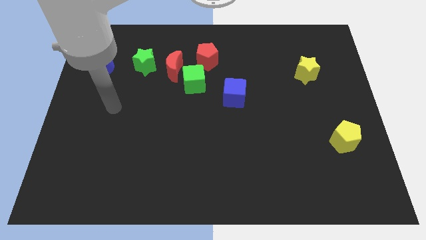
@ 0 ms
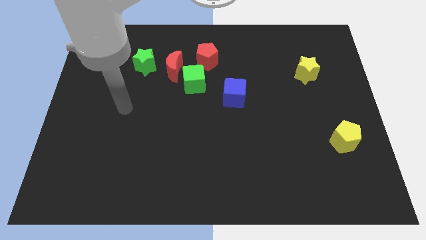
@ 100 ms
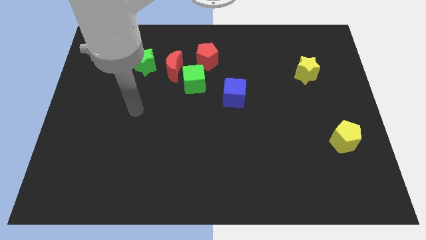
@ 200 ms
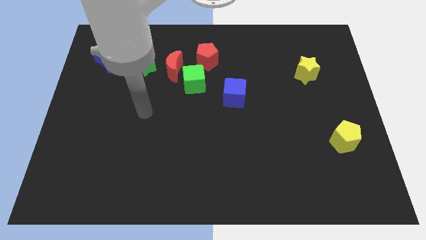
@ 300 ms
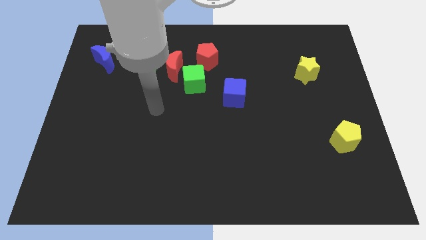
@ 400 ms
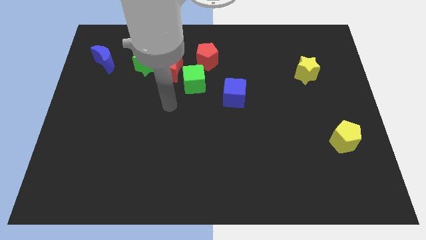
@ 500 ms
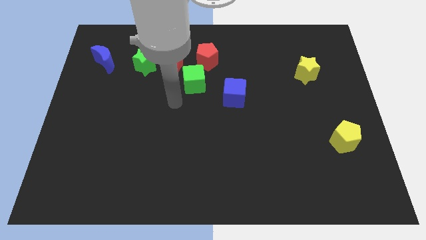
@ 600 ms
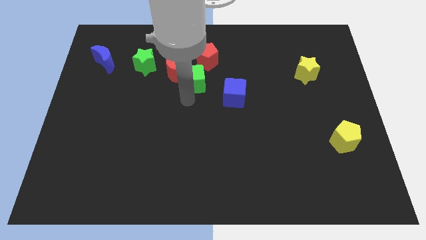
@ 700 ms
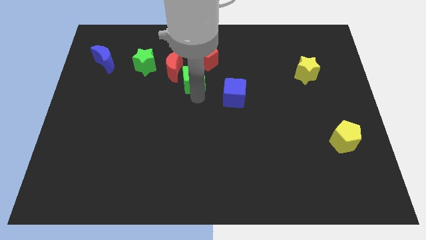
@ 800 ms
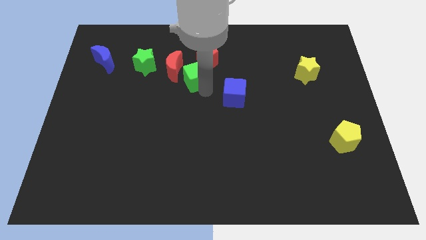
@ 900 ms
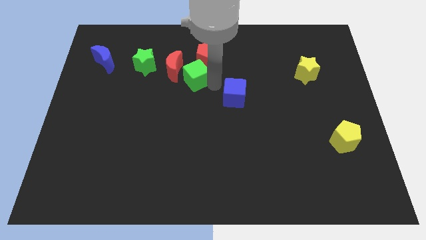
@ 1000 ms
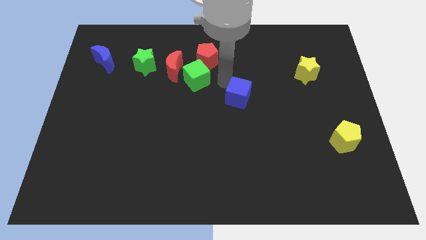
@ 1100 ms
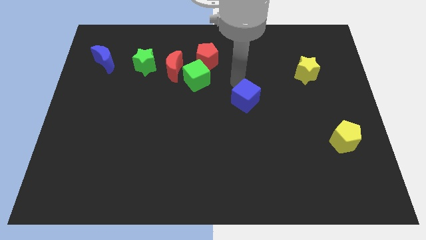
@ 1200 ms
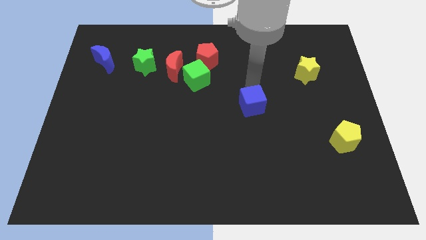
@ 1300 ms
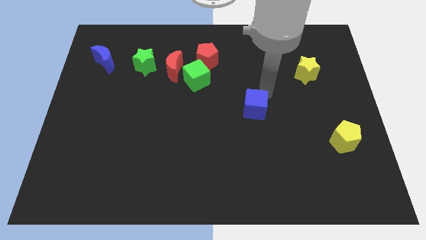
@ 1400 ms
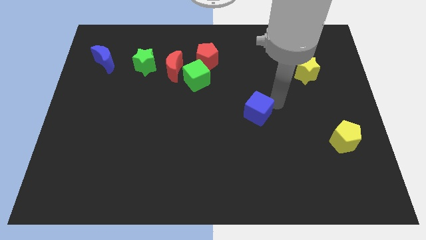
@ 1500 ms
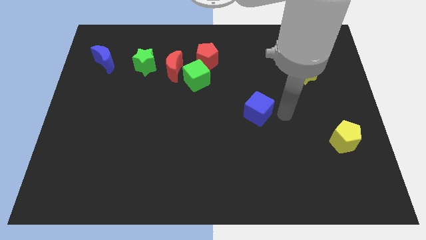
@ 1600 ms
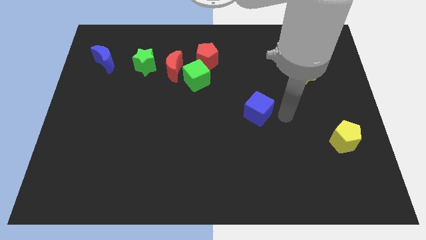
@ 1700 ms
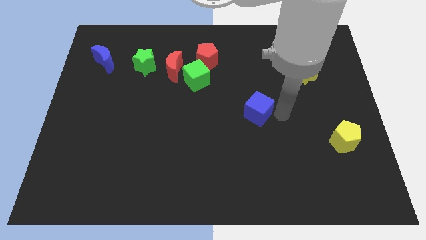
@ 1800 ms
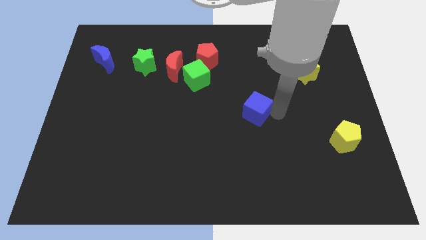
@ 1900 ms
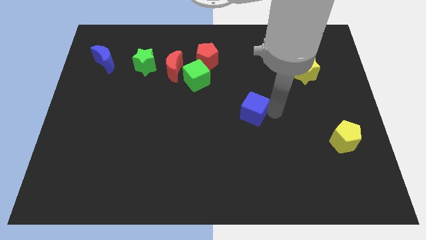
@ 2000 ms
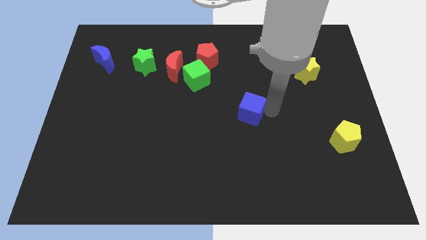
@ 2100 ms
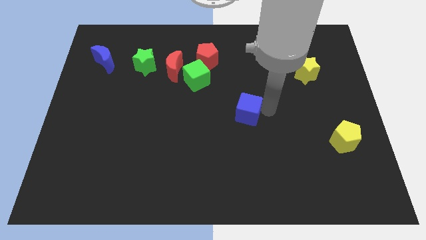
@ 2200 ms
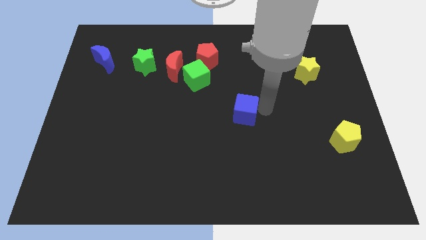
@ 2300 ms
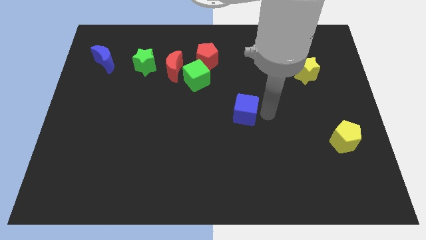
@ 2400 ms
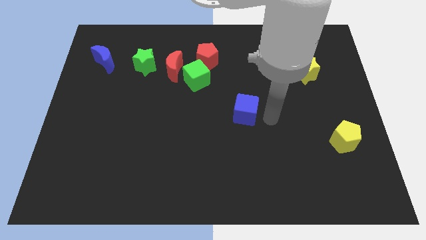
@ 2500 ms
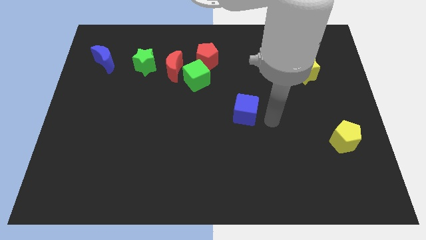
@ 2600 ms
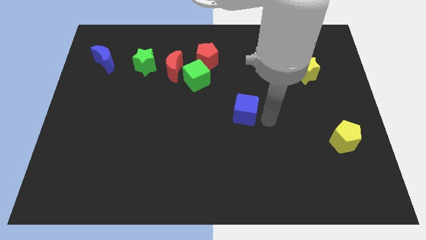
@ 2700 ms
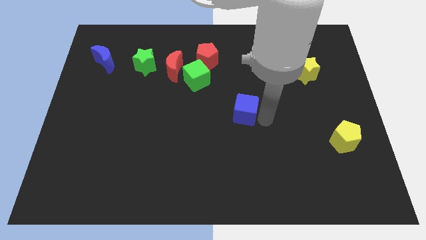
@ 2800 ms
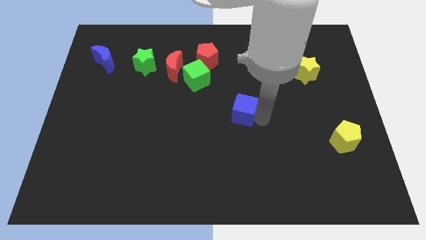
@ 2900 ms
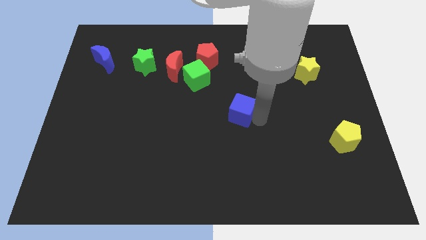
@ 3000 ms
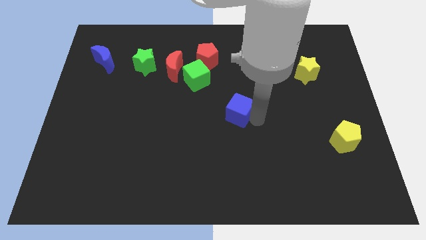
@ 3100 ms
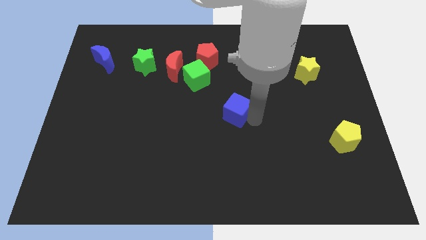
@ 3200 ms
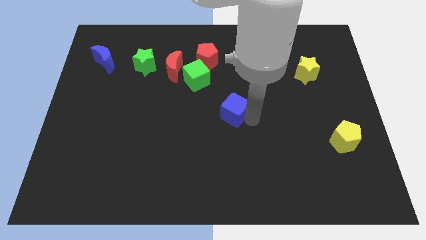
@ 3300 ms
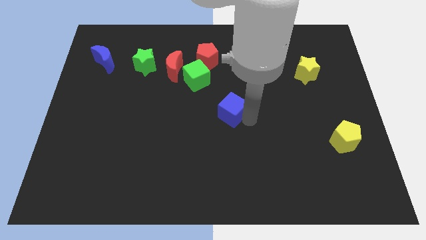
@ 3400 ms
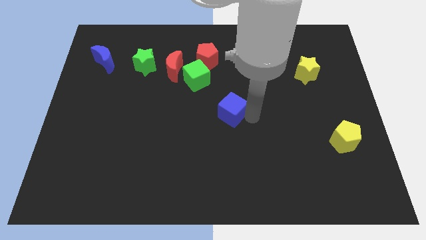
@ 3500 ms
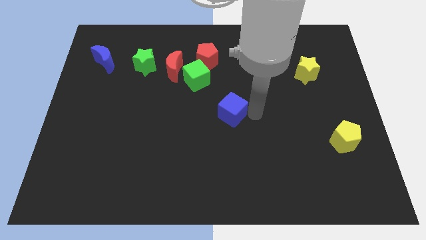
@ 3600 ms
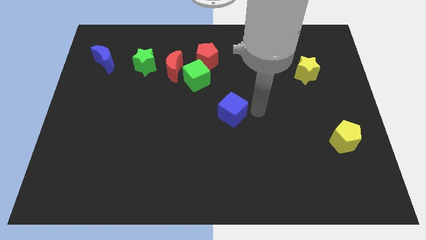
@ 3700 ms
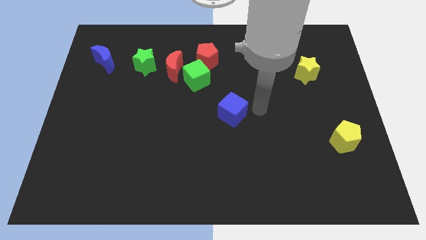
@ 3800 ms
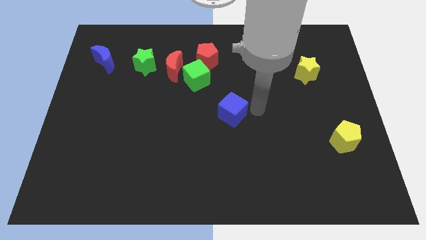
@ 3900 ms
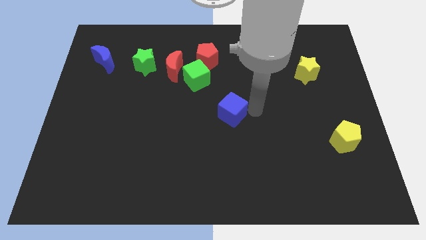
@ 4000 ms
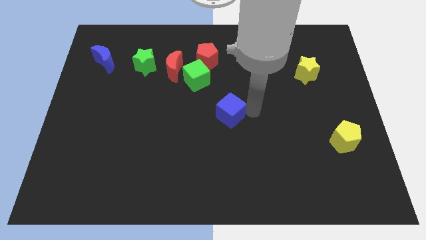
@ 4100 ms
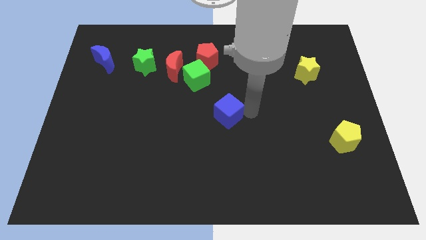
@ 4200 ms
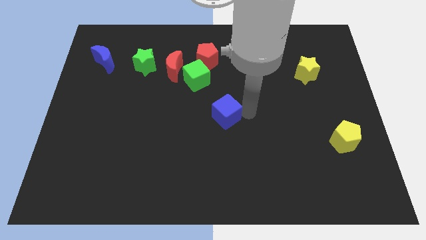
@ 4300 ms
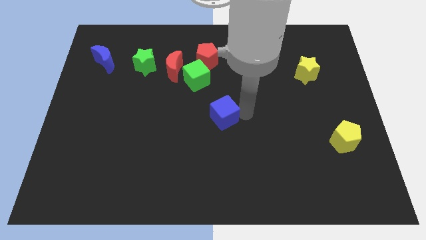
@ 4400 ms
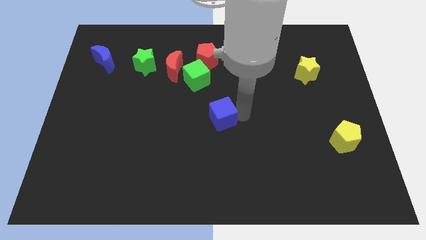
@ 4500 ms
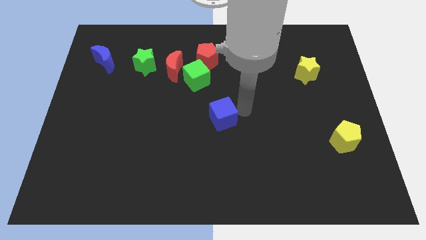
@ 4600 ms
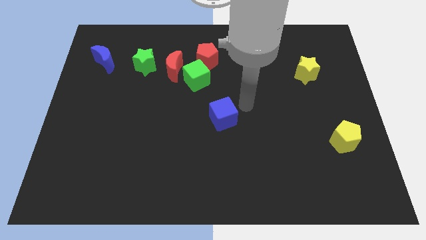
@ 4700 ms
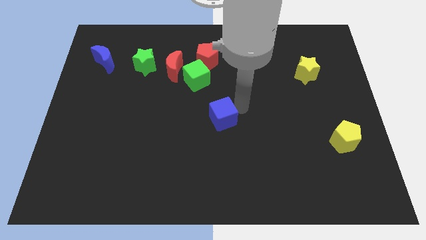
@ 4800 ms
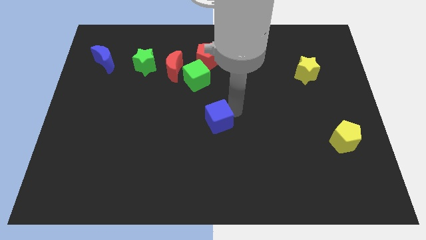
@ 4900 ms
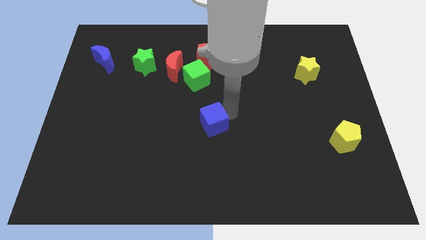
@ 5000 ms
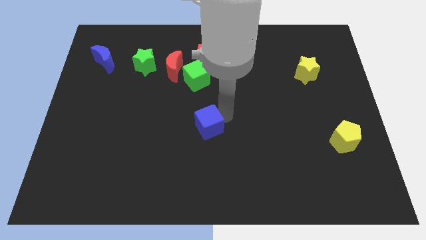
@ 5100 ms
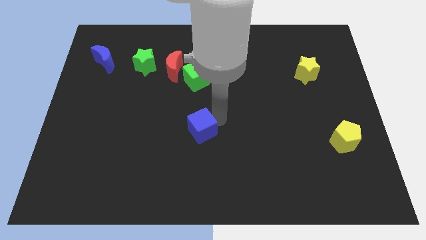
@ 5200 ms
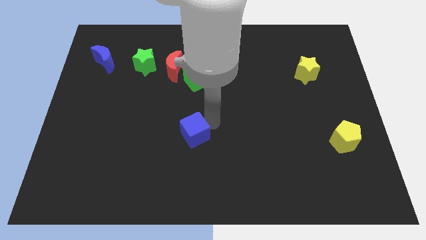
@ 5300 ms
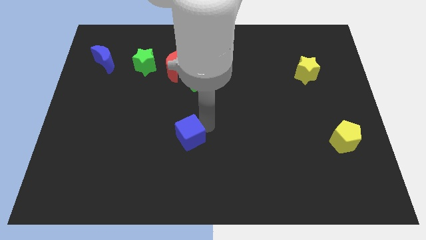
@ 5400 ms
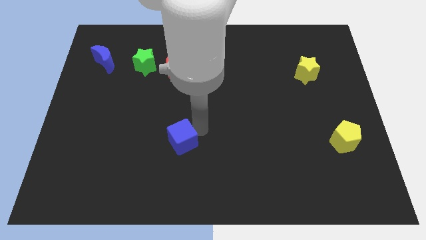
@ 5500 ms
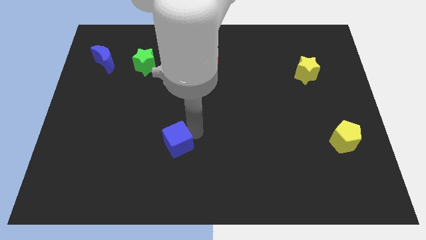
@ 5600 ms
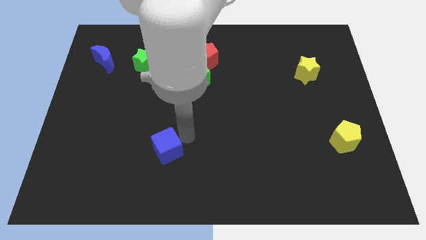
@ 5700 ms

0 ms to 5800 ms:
push the blue cube diagonally down and to the left

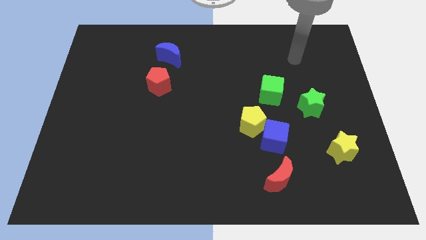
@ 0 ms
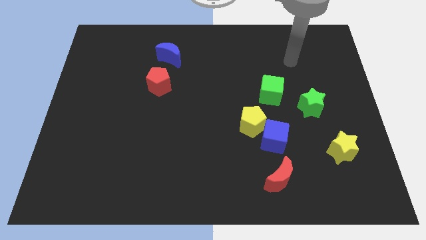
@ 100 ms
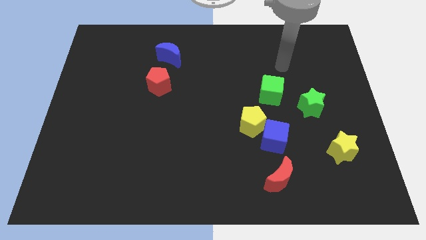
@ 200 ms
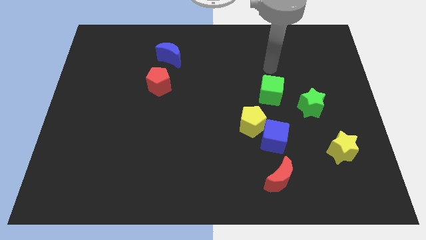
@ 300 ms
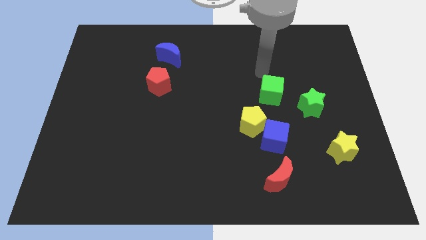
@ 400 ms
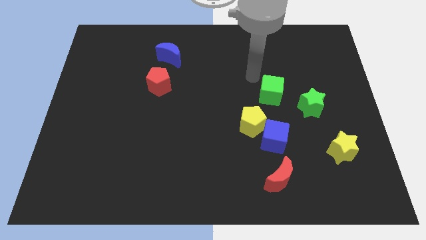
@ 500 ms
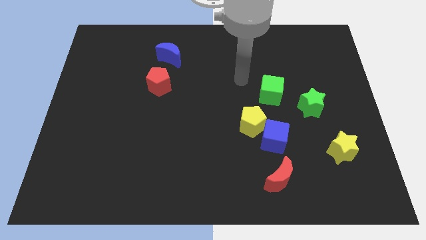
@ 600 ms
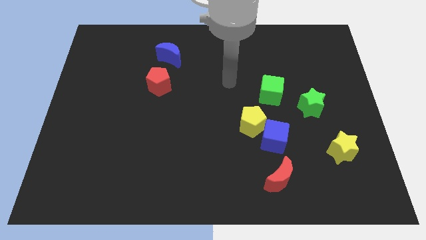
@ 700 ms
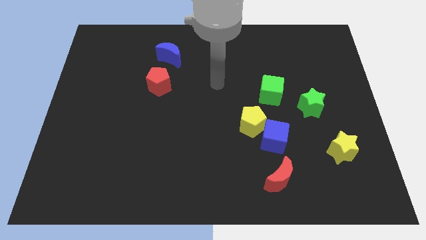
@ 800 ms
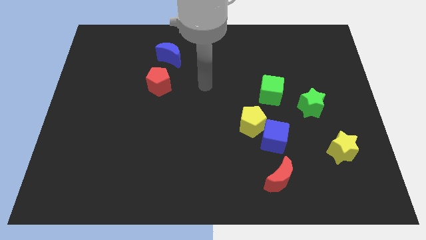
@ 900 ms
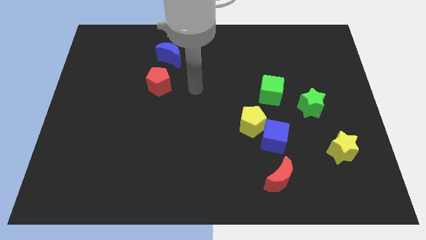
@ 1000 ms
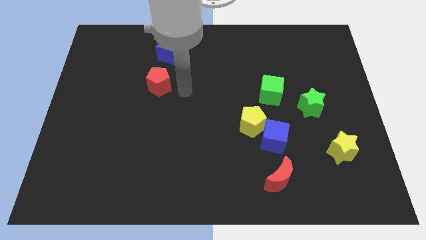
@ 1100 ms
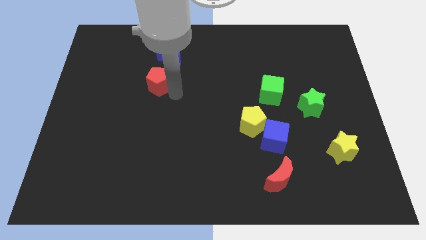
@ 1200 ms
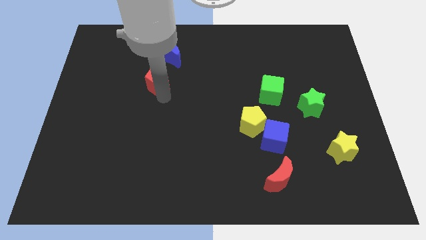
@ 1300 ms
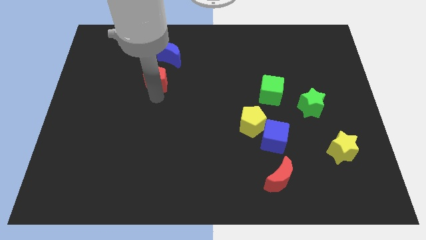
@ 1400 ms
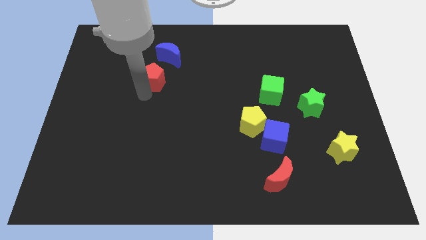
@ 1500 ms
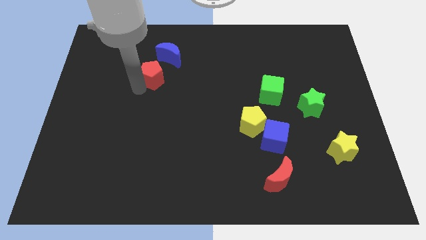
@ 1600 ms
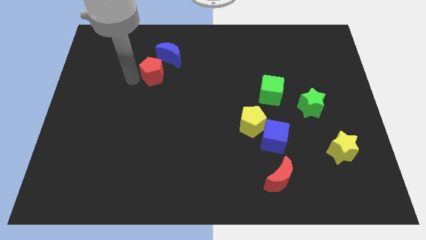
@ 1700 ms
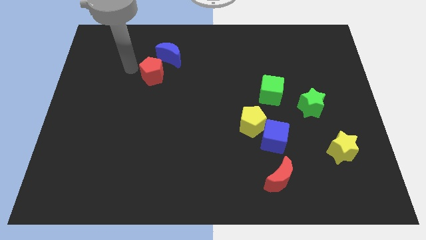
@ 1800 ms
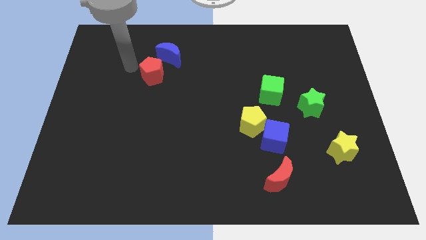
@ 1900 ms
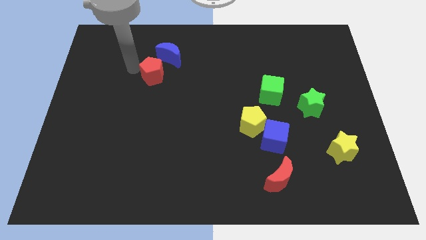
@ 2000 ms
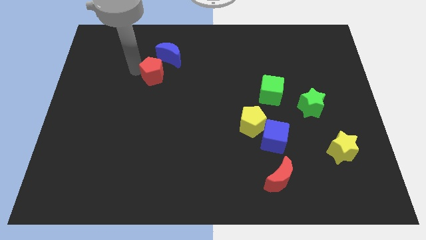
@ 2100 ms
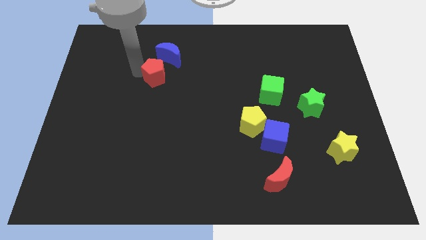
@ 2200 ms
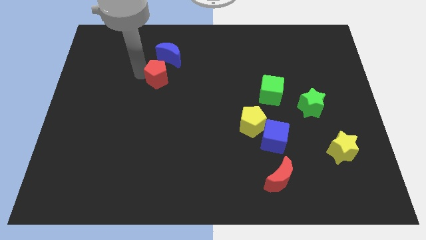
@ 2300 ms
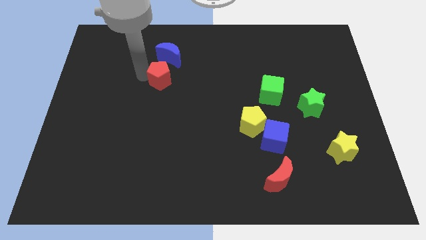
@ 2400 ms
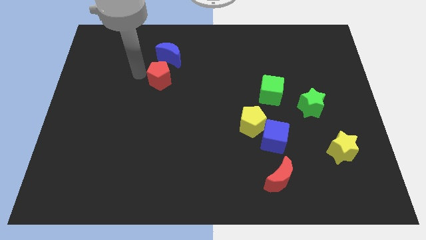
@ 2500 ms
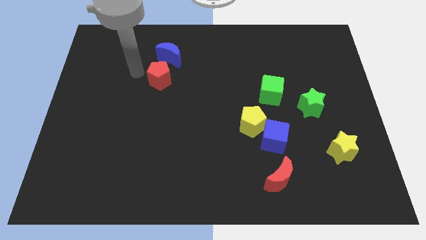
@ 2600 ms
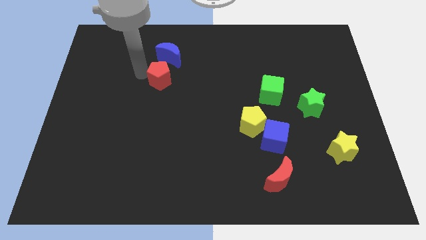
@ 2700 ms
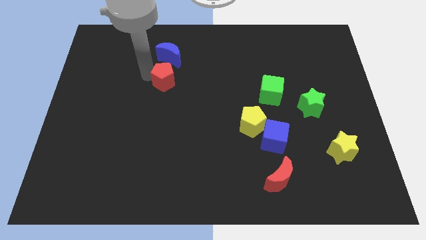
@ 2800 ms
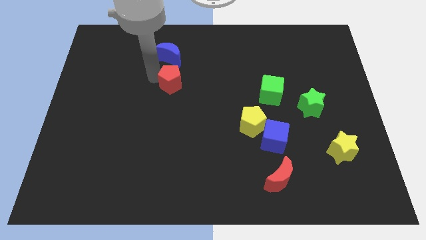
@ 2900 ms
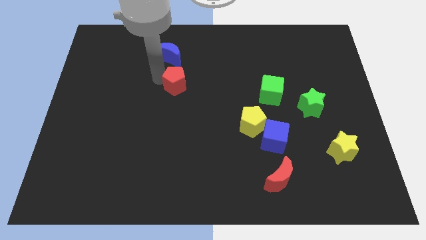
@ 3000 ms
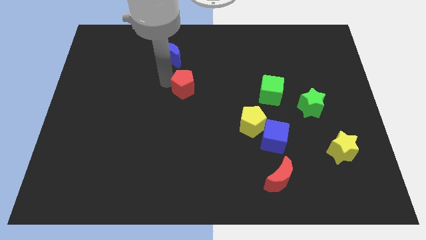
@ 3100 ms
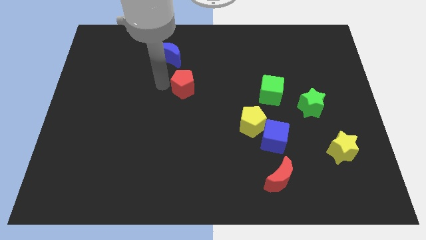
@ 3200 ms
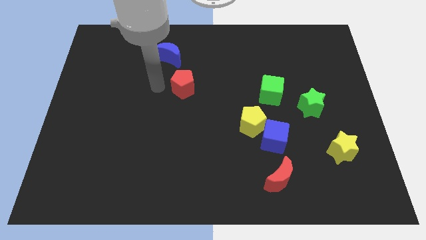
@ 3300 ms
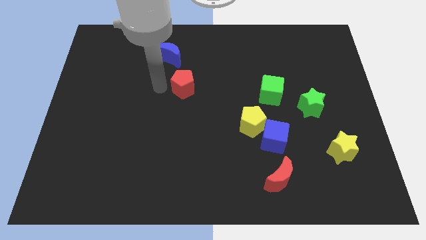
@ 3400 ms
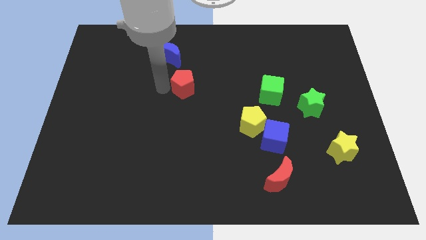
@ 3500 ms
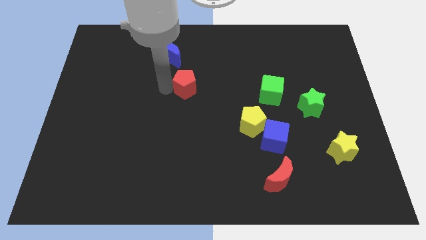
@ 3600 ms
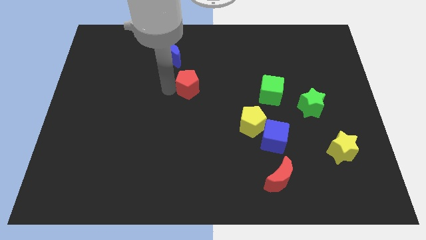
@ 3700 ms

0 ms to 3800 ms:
push the red pentagon right slightly
